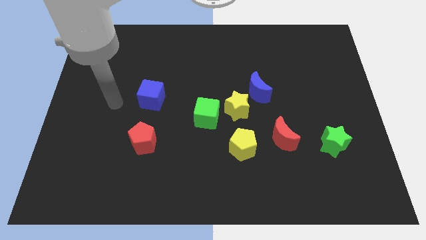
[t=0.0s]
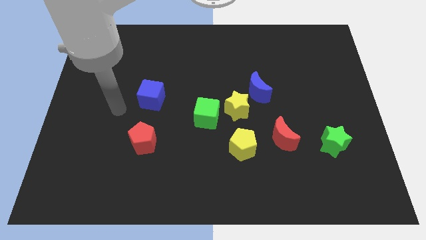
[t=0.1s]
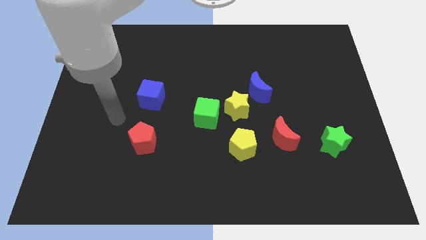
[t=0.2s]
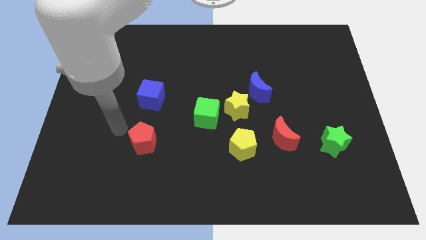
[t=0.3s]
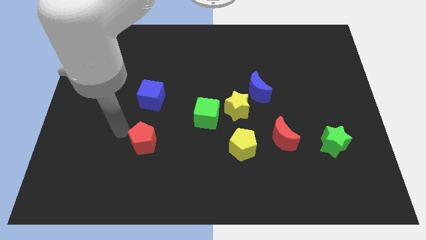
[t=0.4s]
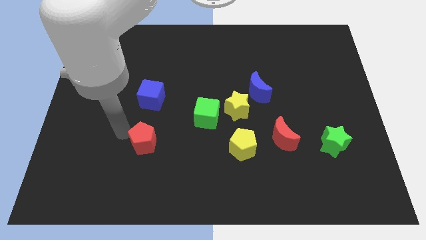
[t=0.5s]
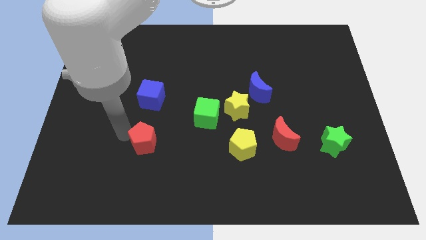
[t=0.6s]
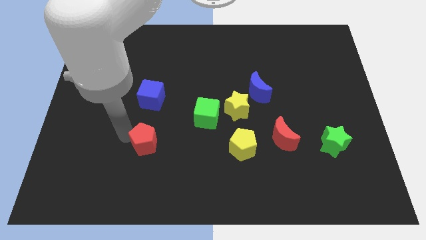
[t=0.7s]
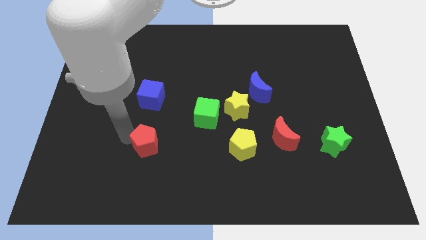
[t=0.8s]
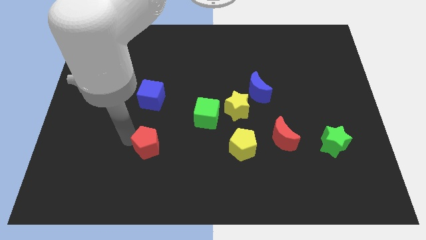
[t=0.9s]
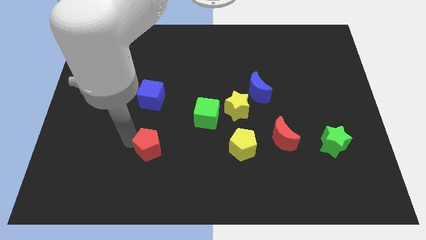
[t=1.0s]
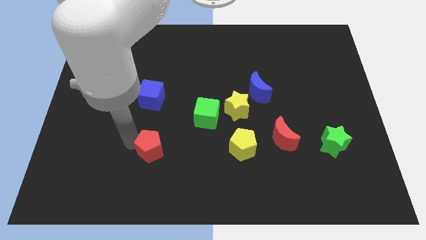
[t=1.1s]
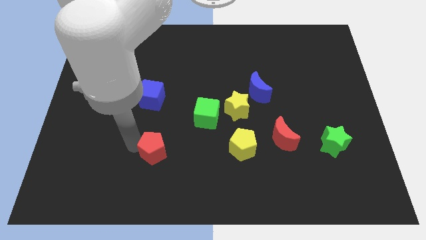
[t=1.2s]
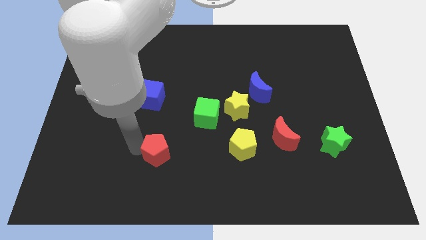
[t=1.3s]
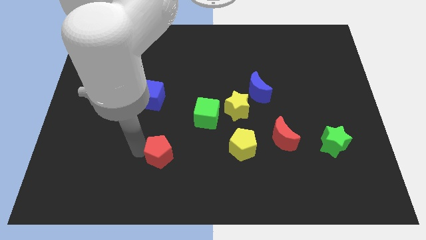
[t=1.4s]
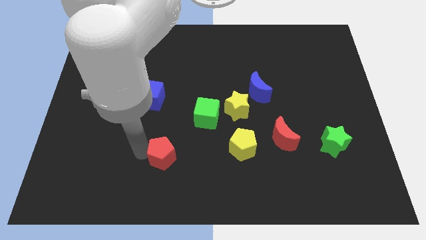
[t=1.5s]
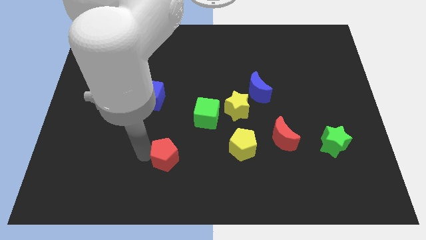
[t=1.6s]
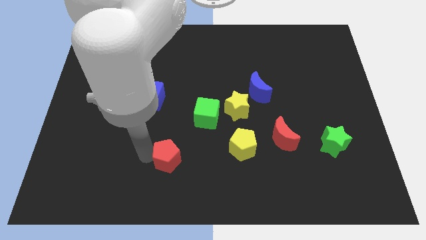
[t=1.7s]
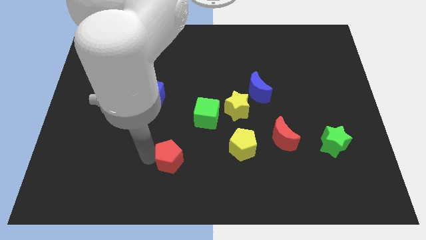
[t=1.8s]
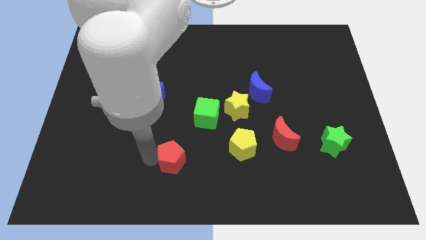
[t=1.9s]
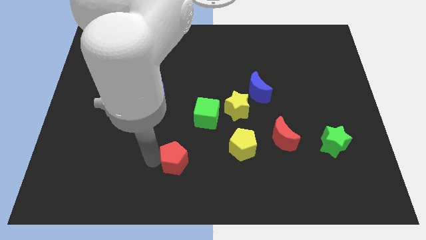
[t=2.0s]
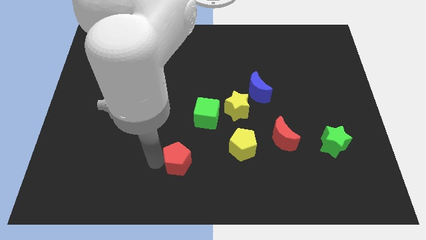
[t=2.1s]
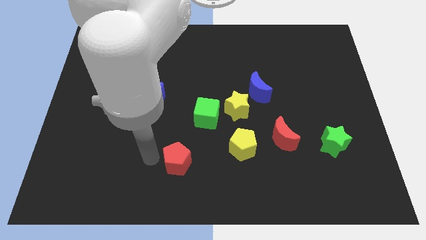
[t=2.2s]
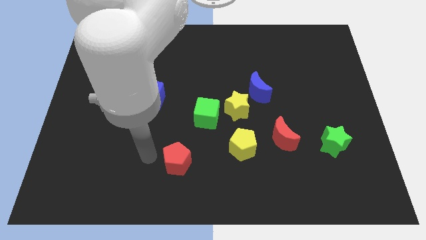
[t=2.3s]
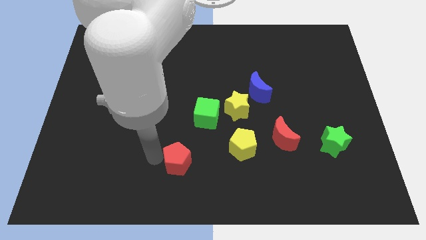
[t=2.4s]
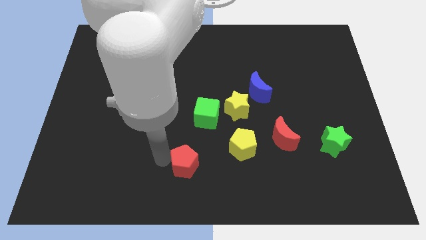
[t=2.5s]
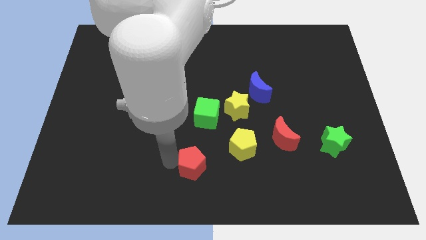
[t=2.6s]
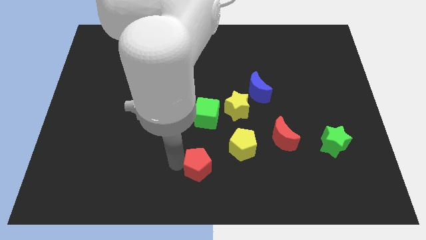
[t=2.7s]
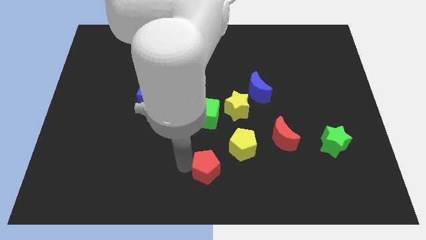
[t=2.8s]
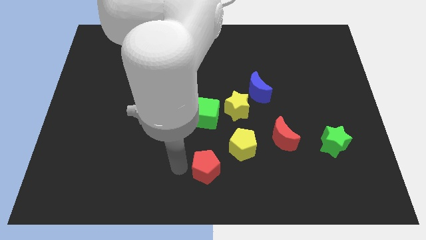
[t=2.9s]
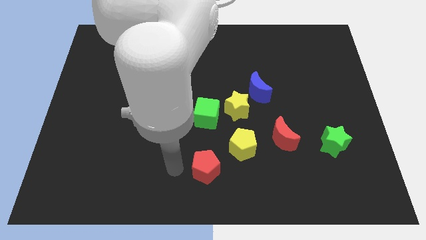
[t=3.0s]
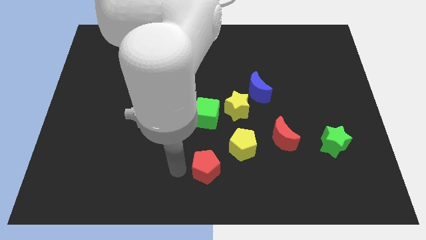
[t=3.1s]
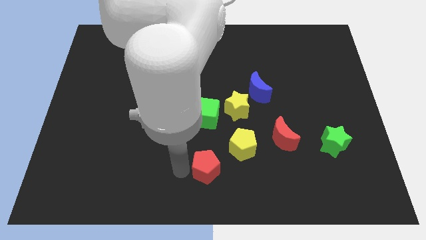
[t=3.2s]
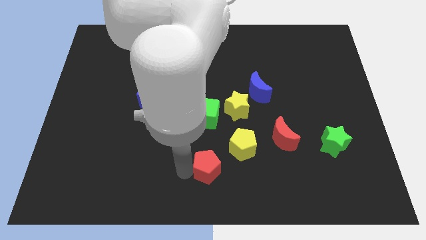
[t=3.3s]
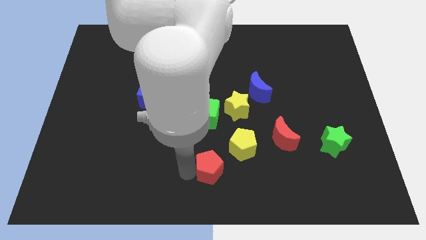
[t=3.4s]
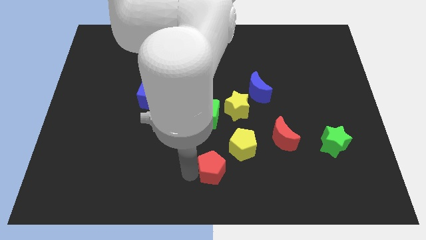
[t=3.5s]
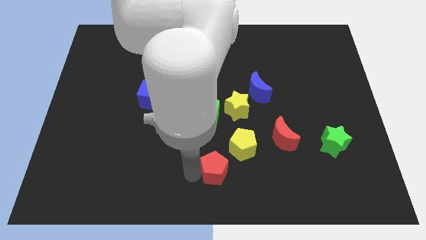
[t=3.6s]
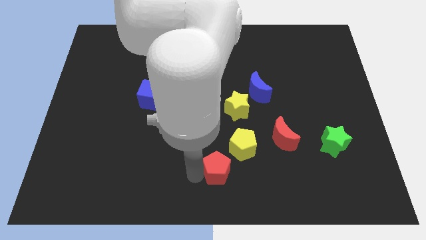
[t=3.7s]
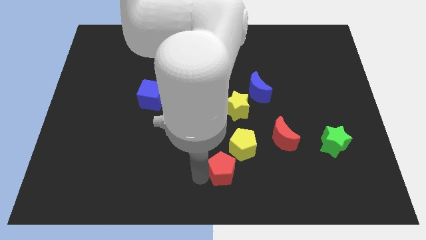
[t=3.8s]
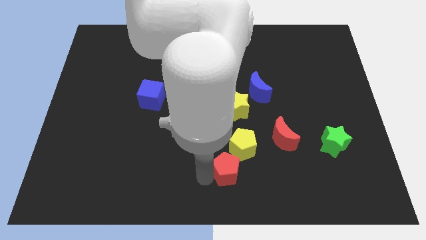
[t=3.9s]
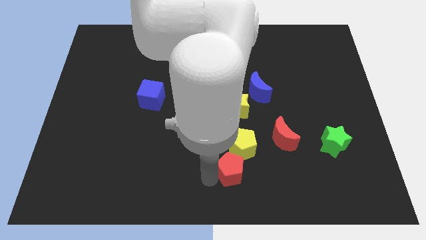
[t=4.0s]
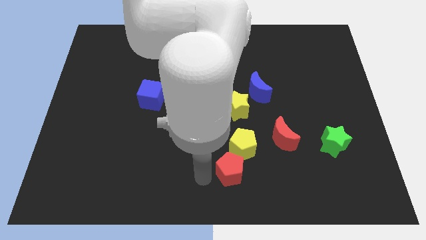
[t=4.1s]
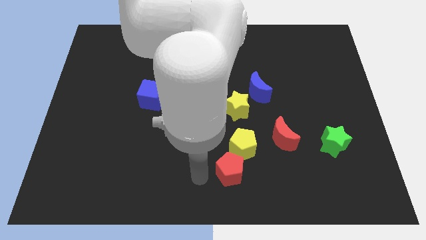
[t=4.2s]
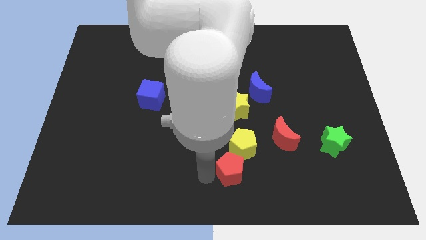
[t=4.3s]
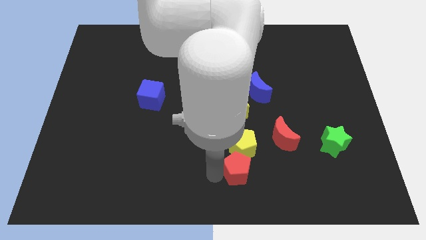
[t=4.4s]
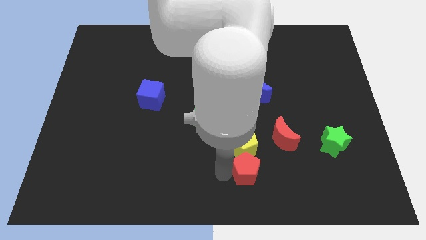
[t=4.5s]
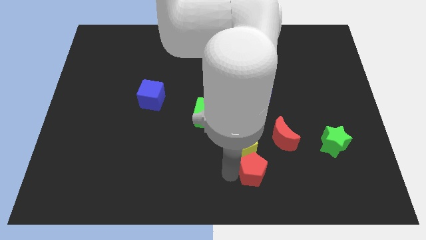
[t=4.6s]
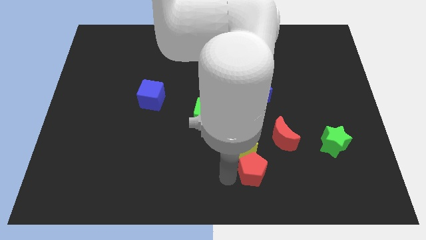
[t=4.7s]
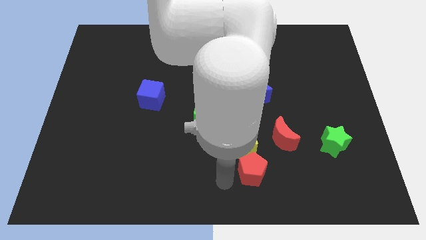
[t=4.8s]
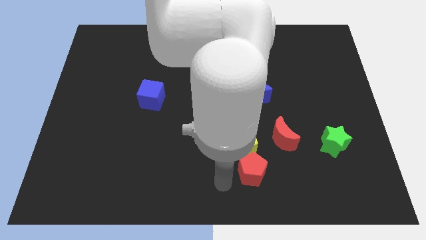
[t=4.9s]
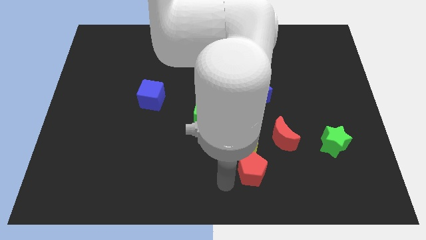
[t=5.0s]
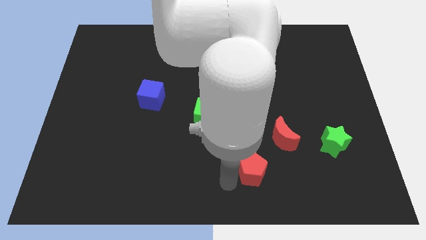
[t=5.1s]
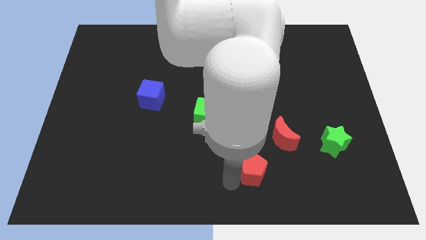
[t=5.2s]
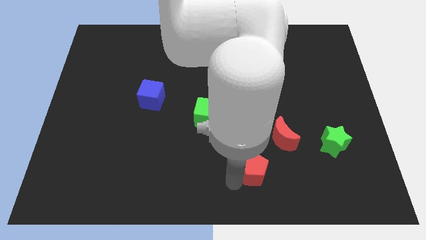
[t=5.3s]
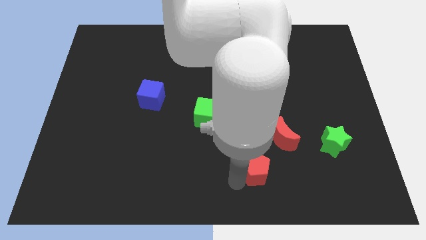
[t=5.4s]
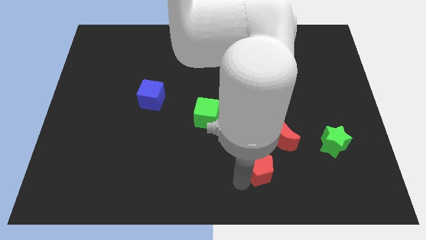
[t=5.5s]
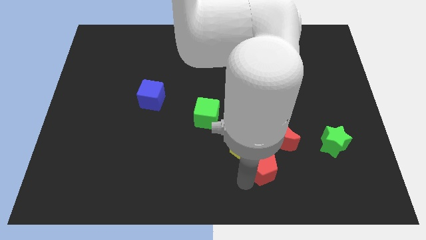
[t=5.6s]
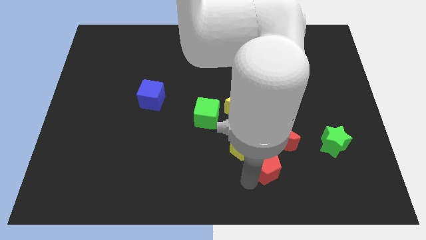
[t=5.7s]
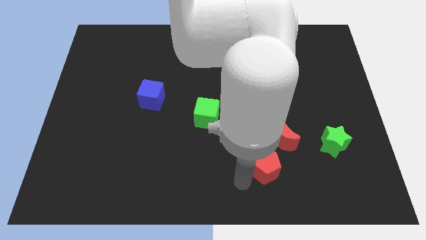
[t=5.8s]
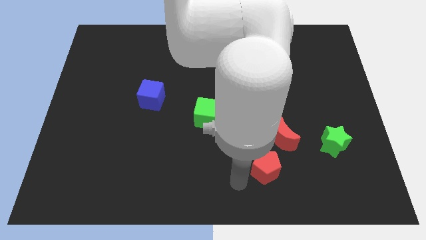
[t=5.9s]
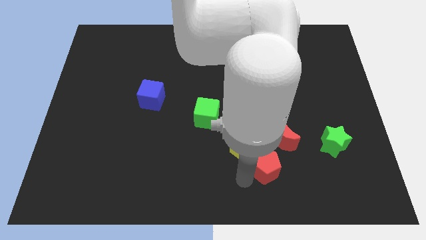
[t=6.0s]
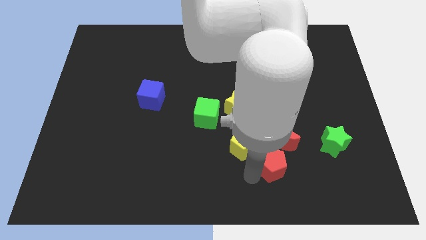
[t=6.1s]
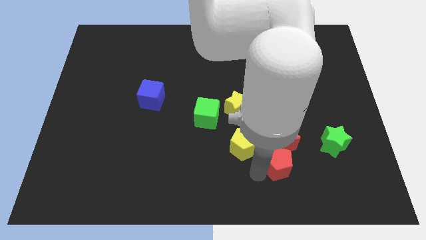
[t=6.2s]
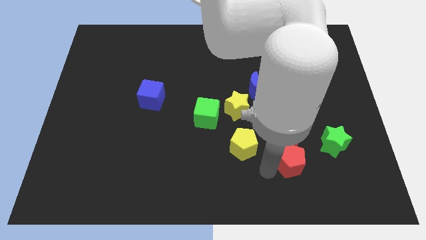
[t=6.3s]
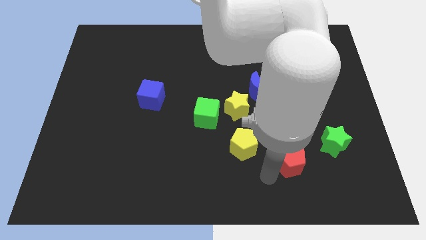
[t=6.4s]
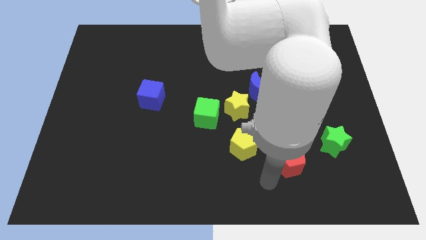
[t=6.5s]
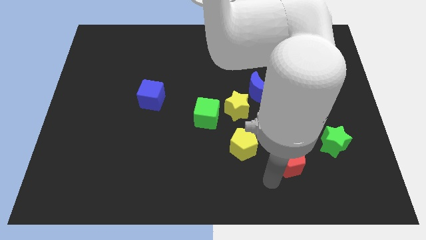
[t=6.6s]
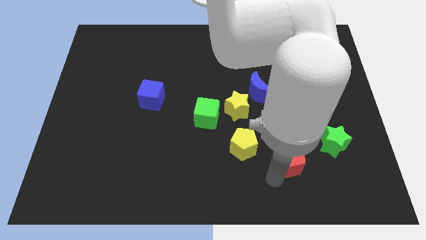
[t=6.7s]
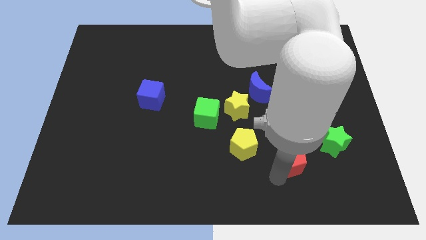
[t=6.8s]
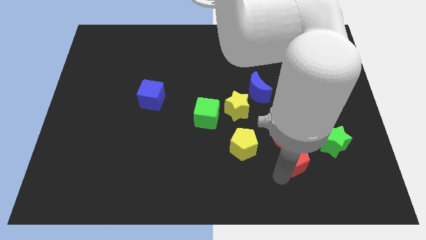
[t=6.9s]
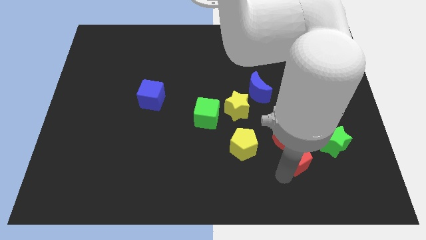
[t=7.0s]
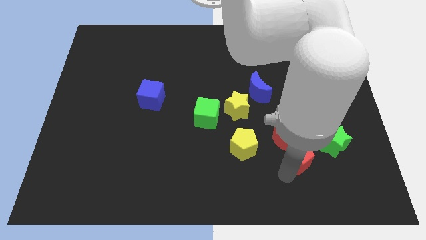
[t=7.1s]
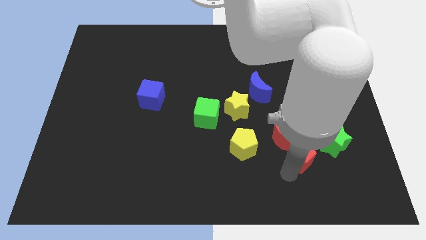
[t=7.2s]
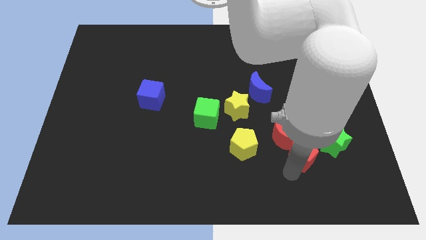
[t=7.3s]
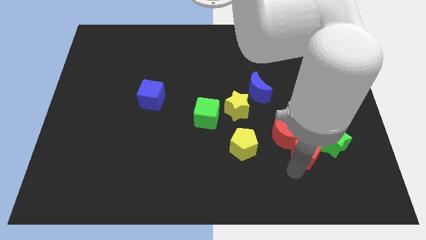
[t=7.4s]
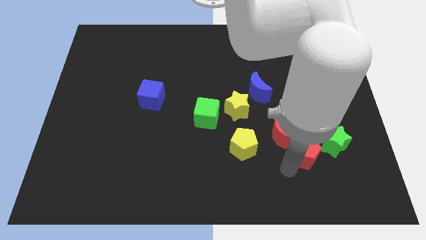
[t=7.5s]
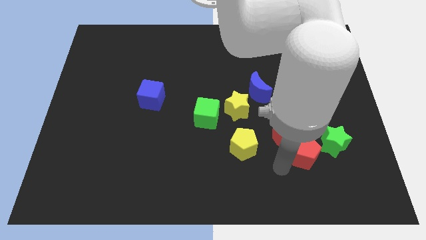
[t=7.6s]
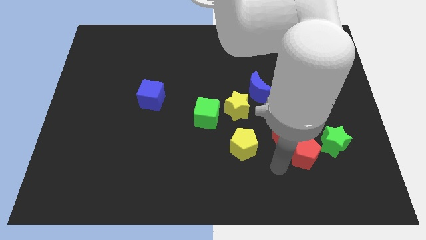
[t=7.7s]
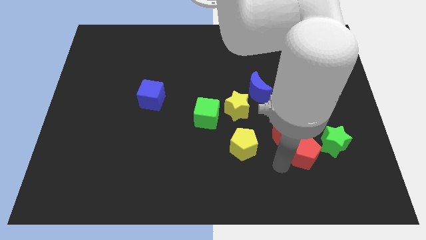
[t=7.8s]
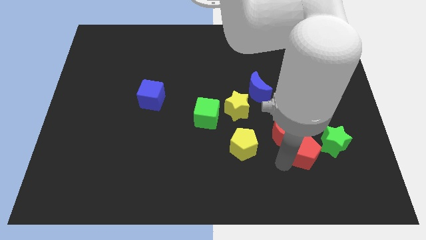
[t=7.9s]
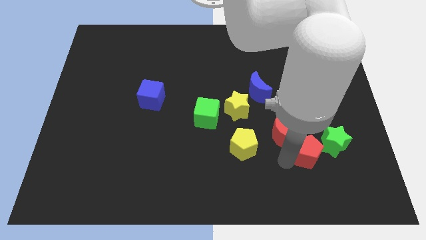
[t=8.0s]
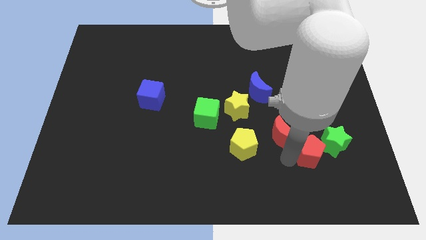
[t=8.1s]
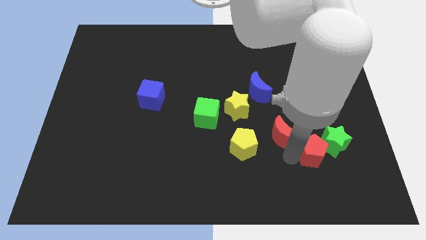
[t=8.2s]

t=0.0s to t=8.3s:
put the red pentagon next to the green star
